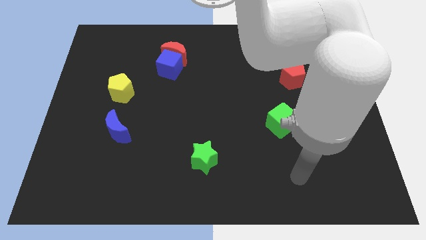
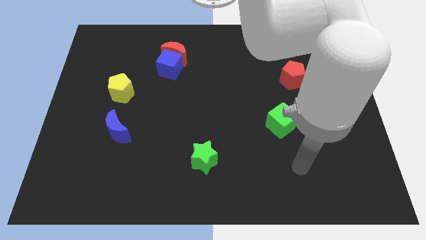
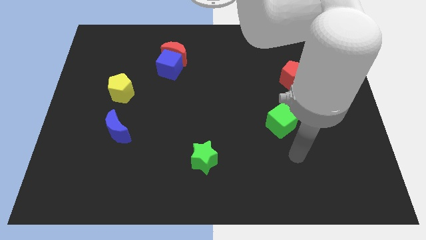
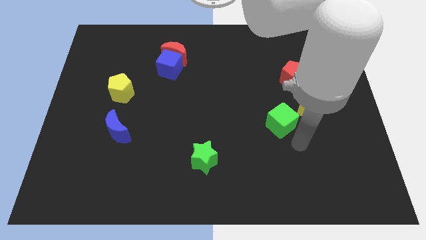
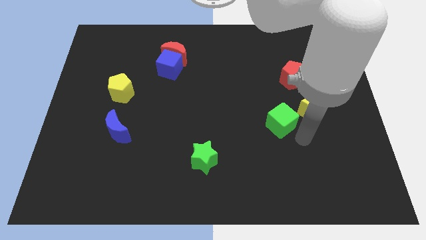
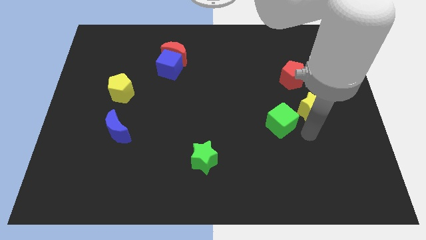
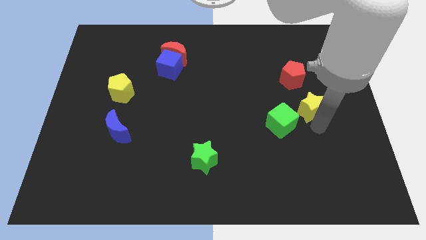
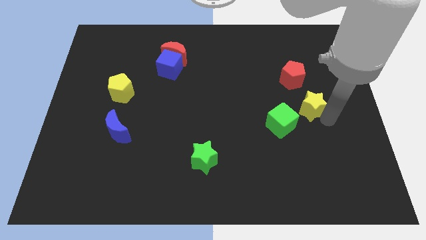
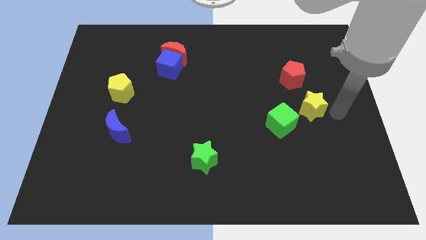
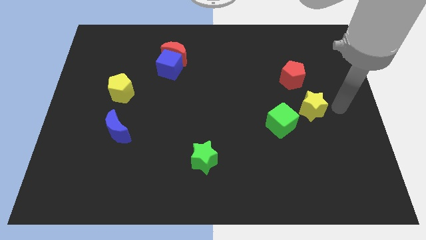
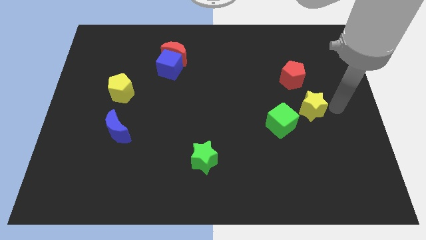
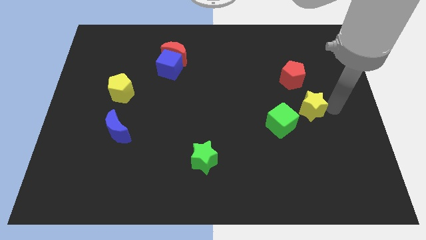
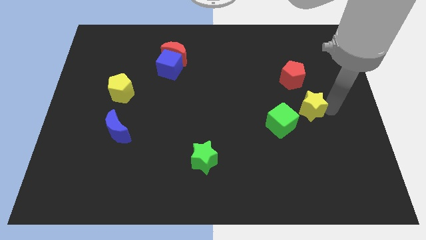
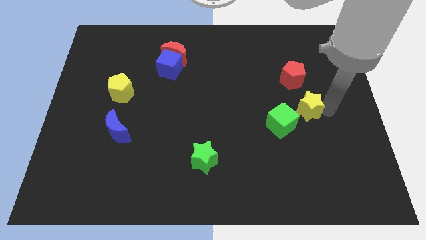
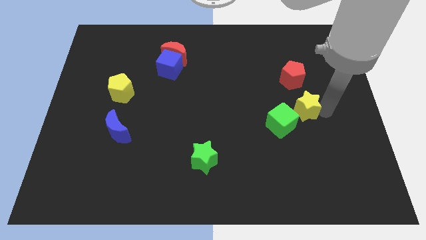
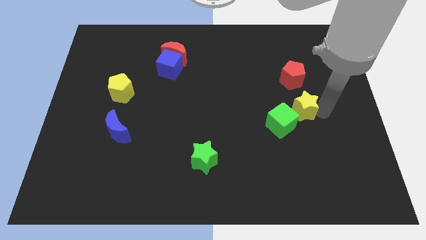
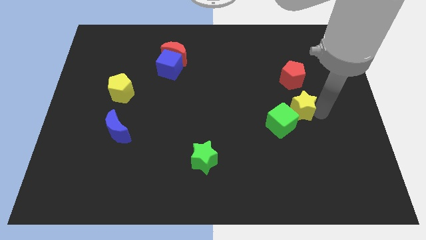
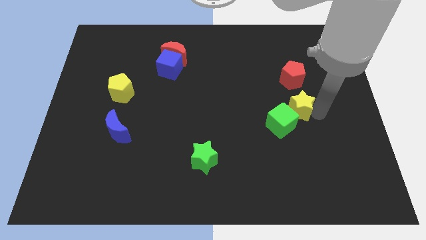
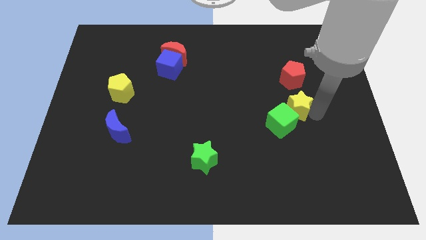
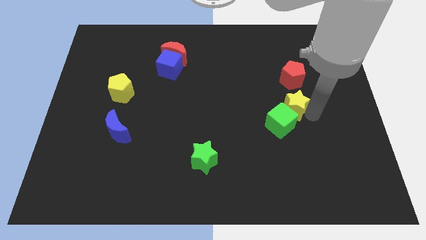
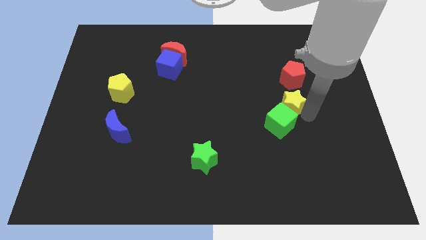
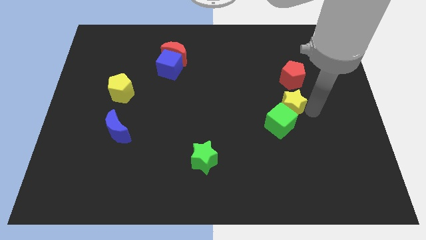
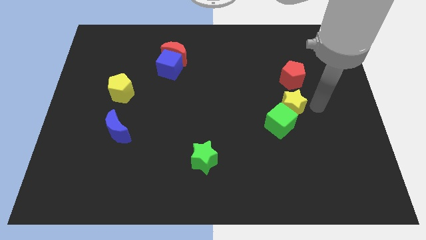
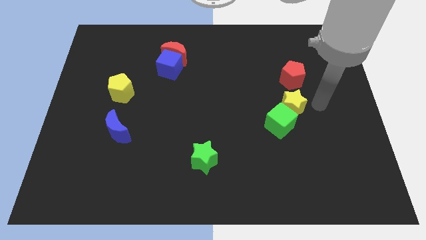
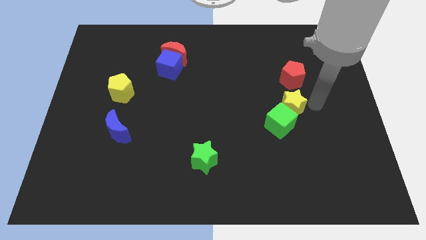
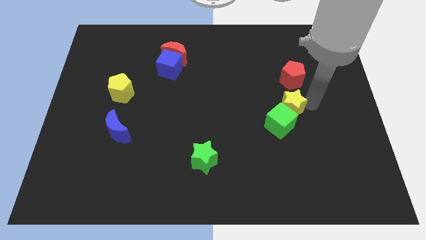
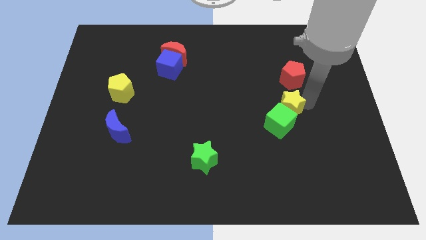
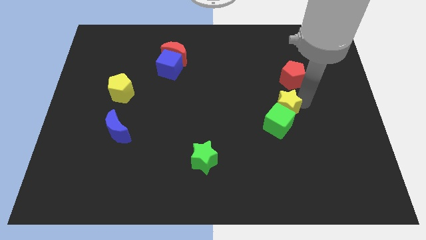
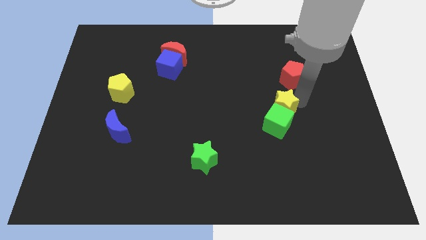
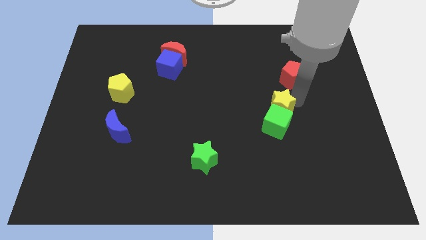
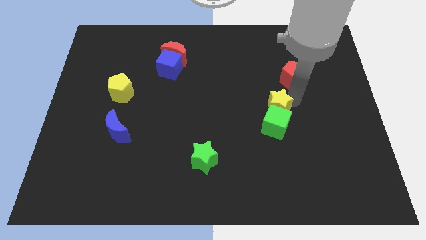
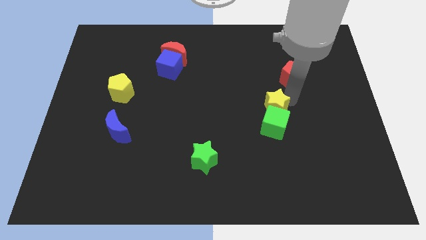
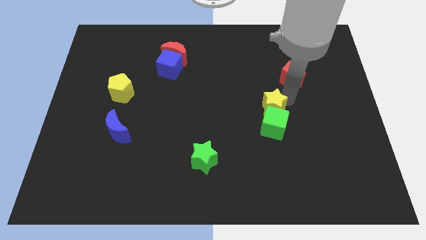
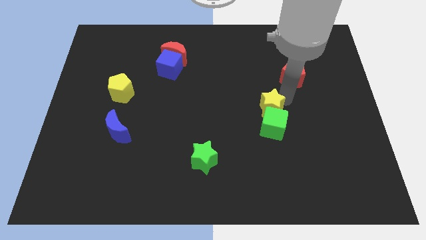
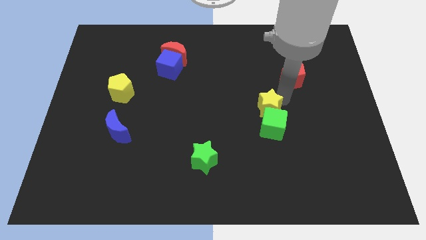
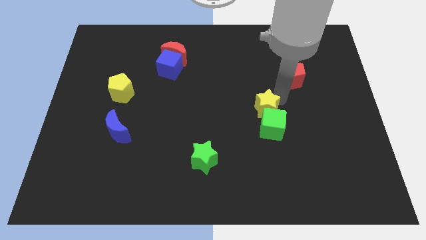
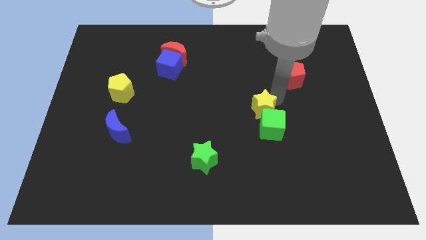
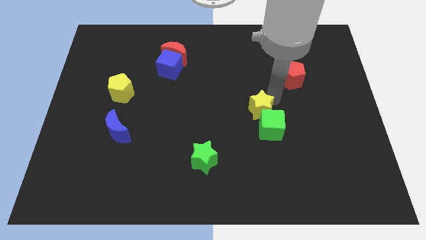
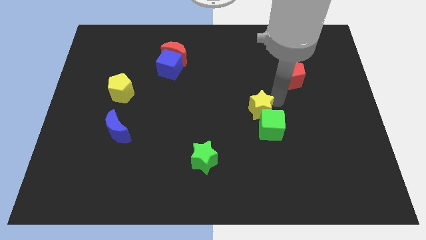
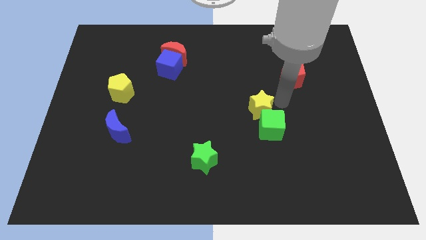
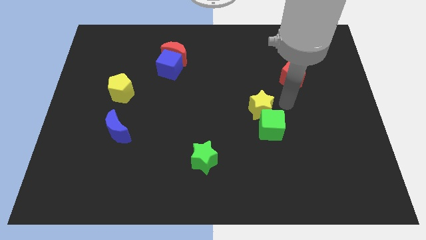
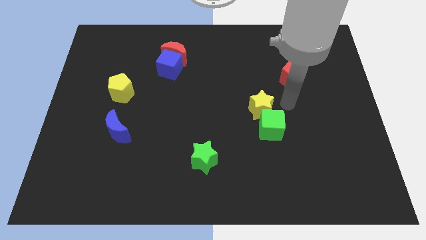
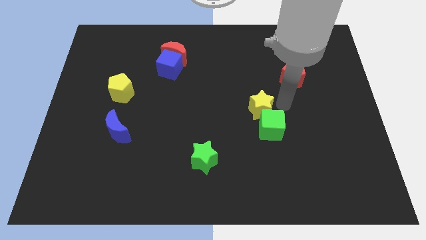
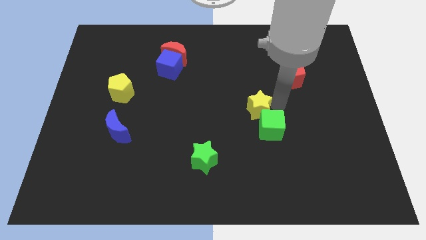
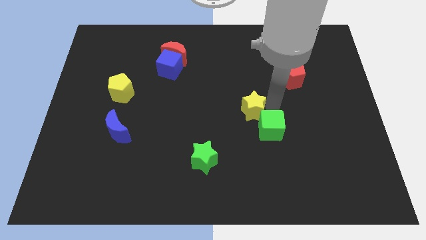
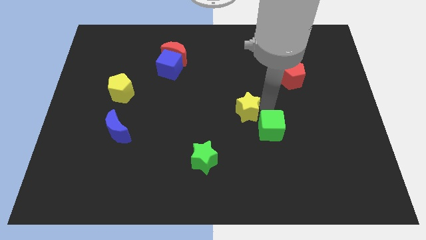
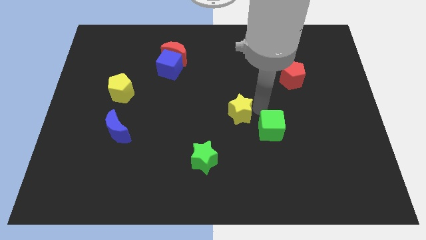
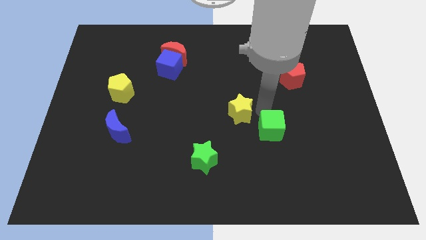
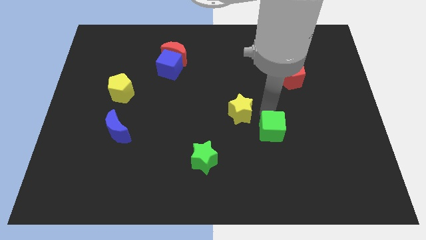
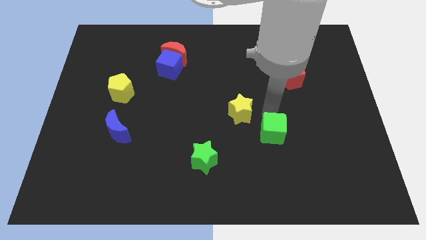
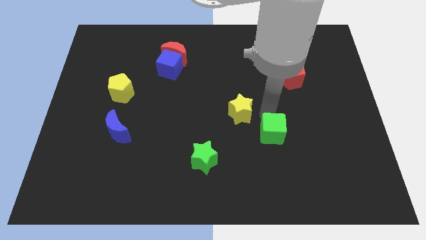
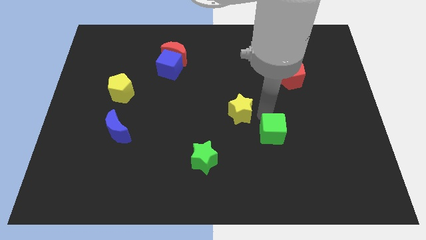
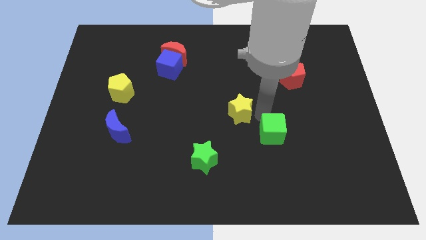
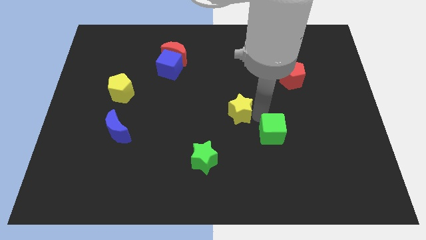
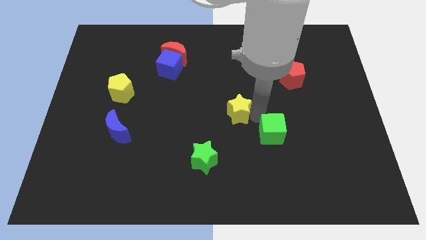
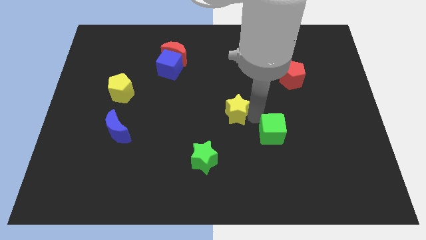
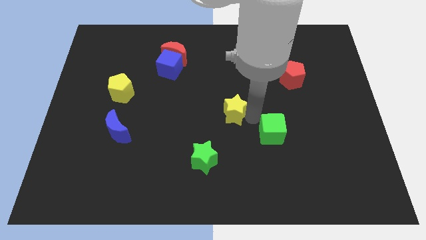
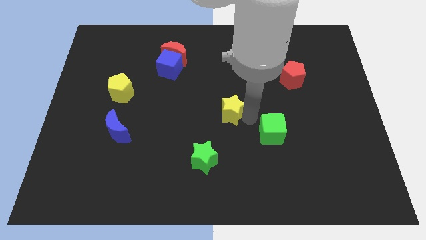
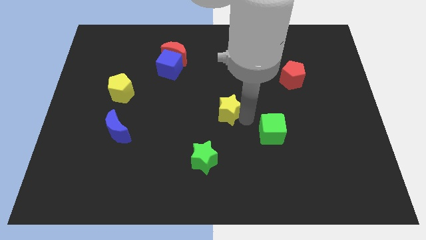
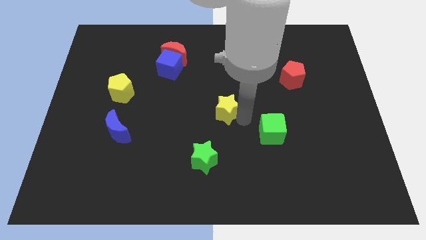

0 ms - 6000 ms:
move the yellow star to the left

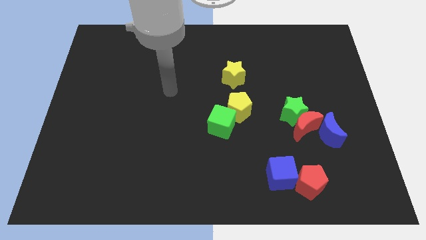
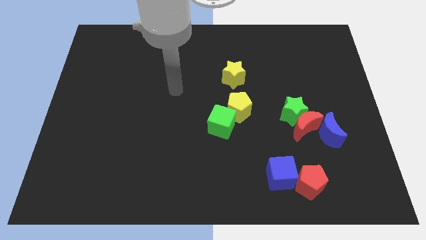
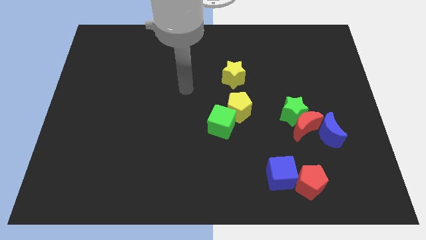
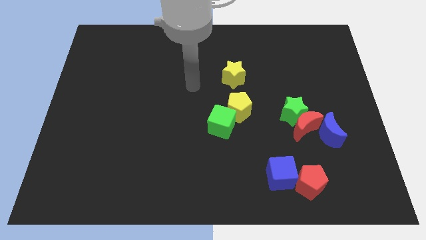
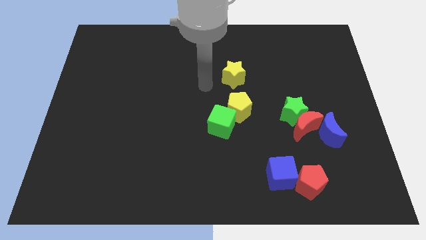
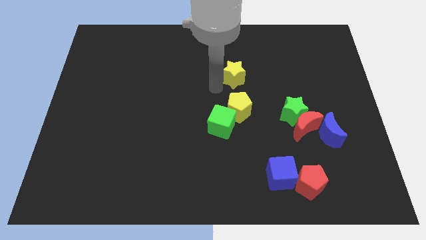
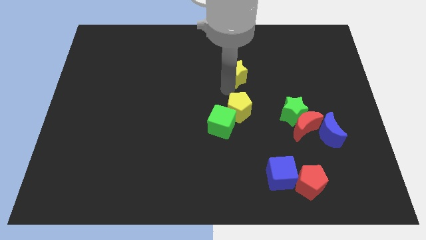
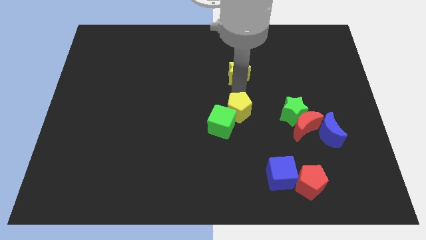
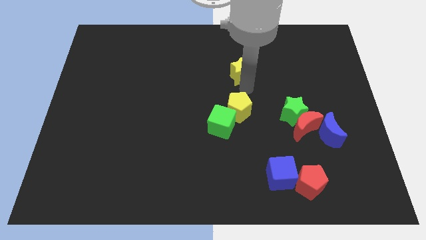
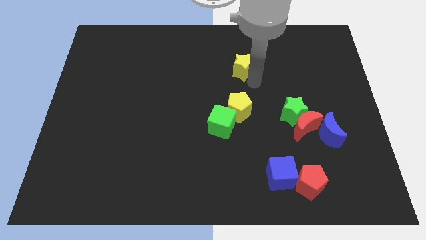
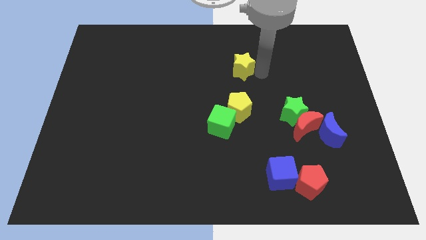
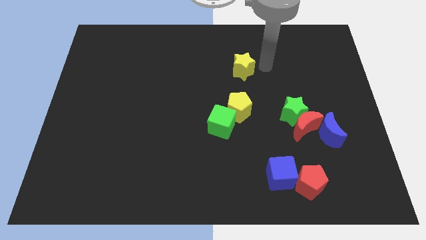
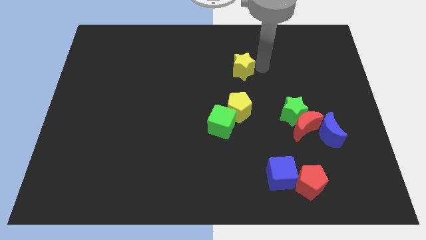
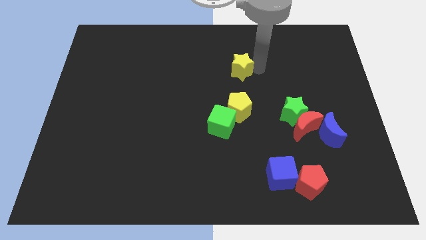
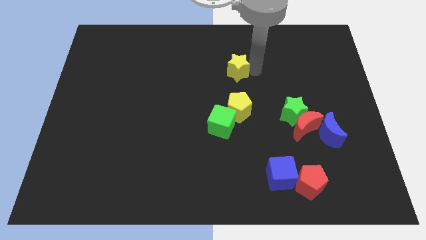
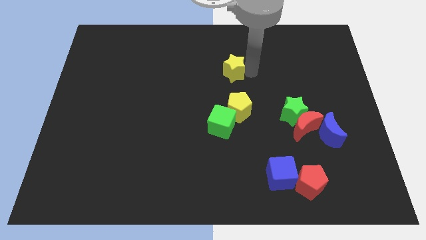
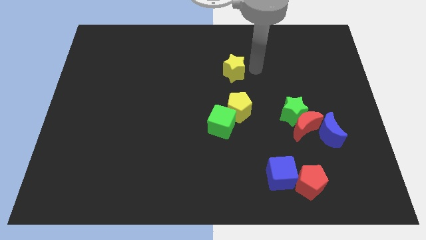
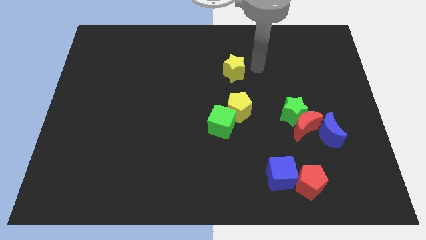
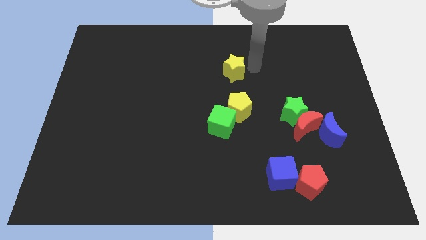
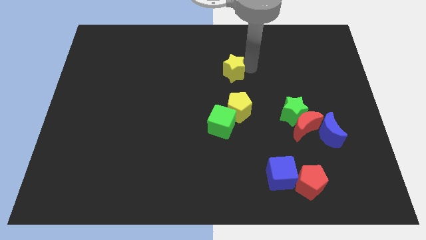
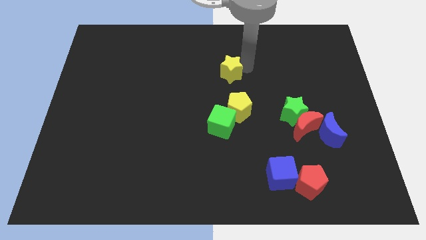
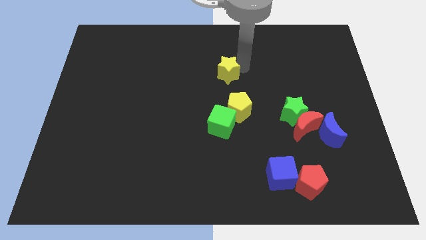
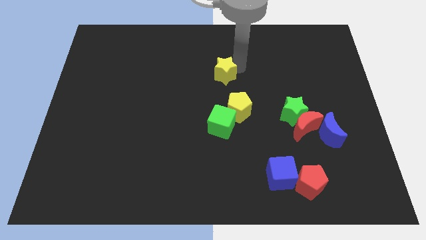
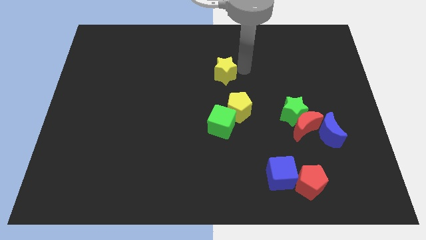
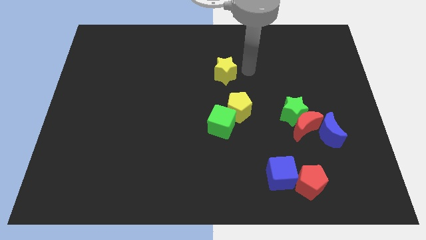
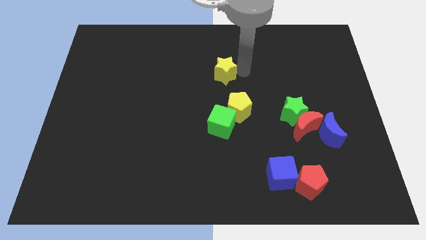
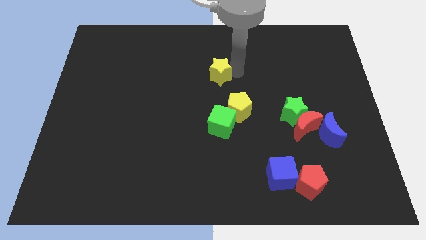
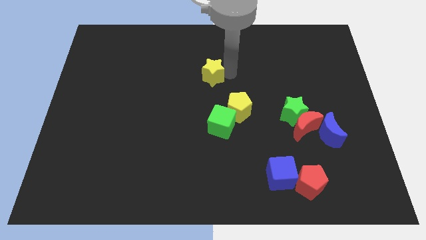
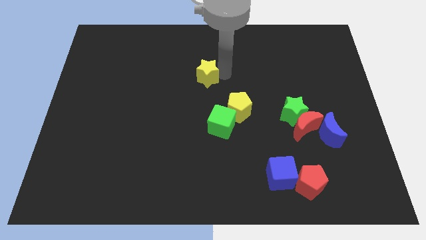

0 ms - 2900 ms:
slightly push the yellow star to the left
